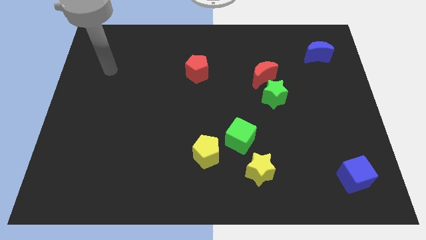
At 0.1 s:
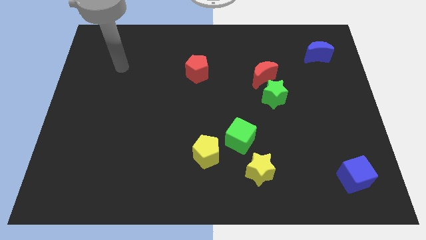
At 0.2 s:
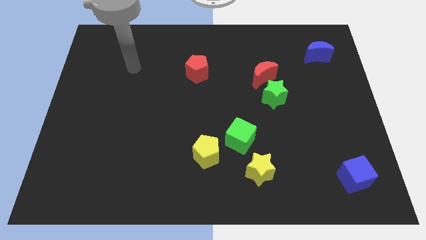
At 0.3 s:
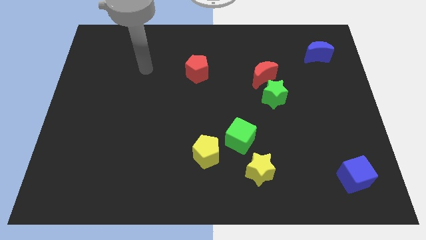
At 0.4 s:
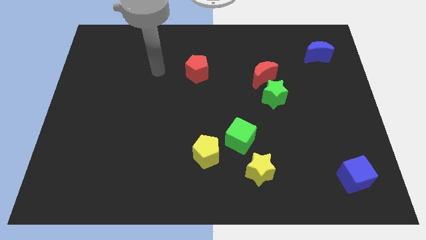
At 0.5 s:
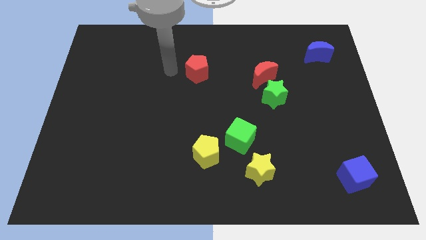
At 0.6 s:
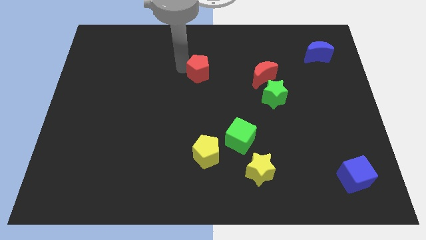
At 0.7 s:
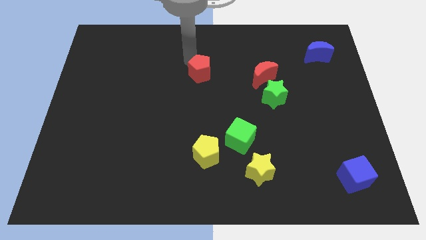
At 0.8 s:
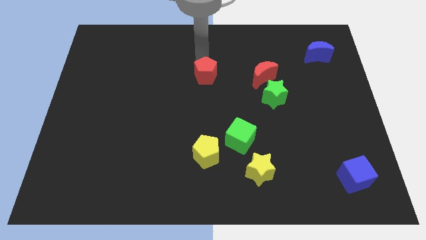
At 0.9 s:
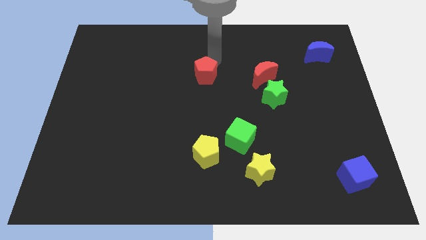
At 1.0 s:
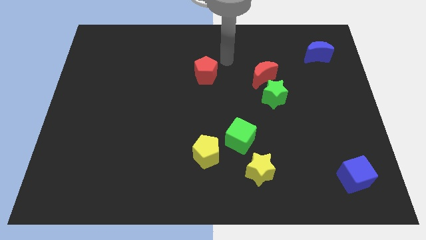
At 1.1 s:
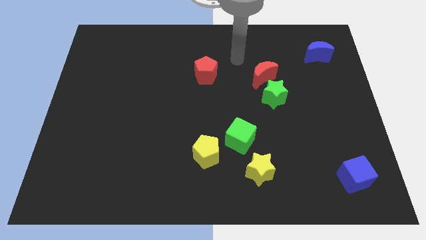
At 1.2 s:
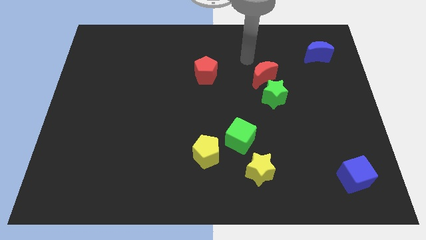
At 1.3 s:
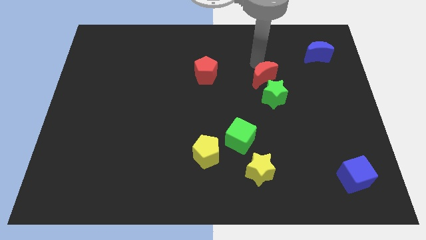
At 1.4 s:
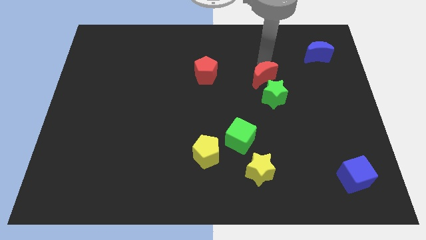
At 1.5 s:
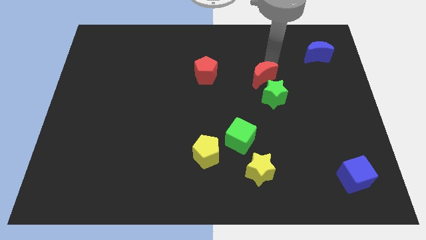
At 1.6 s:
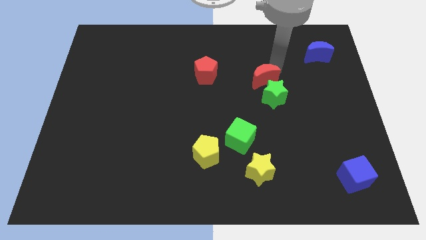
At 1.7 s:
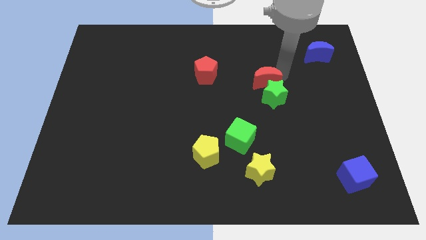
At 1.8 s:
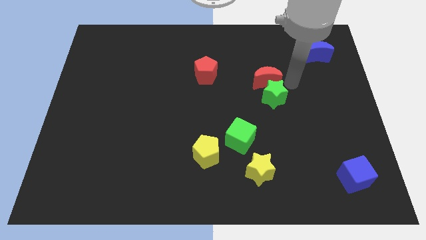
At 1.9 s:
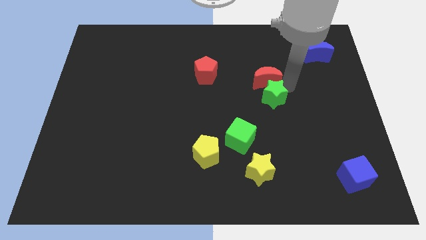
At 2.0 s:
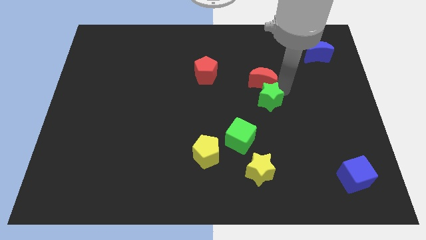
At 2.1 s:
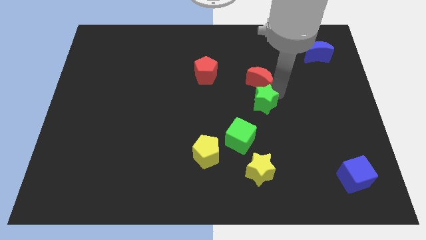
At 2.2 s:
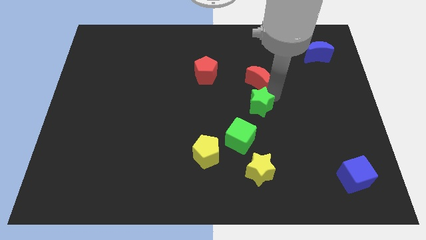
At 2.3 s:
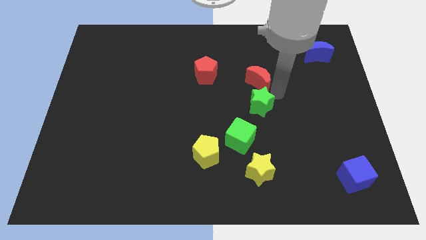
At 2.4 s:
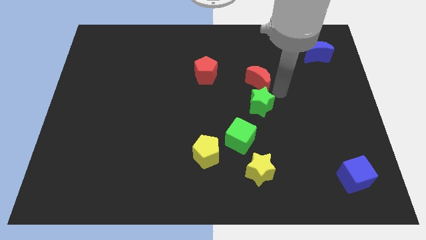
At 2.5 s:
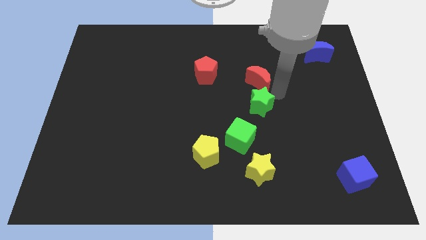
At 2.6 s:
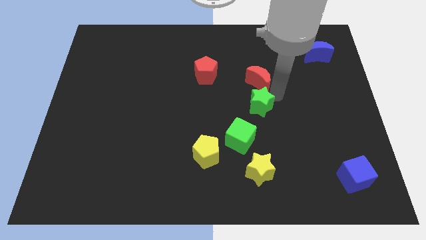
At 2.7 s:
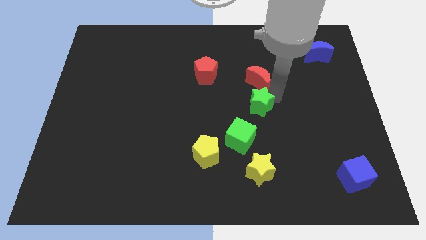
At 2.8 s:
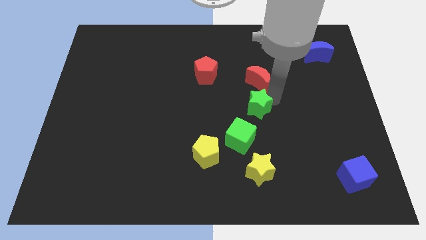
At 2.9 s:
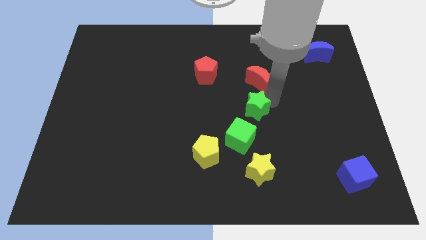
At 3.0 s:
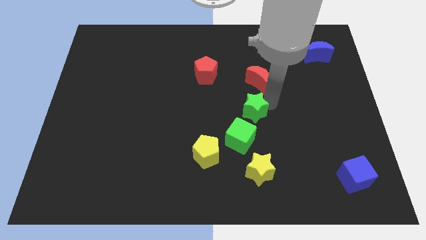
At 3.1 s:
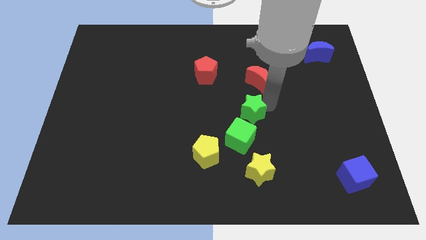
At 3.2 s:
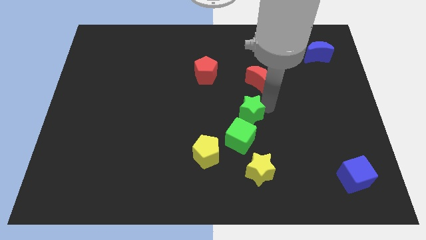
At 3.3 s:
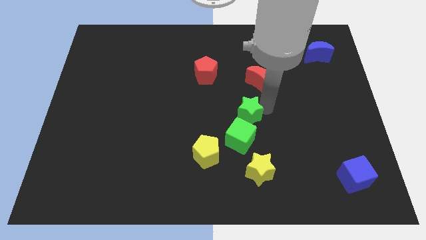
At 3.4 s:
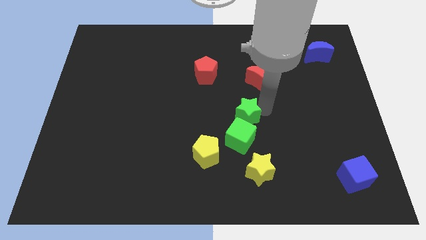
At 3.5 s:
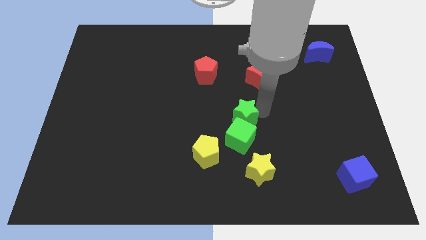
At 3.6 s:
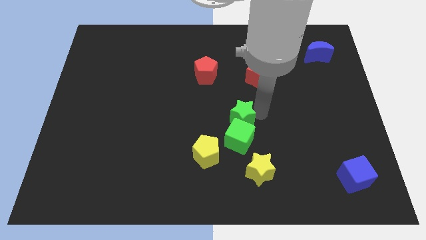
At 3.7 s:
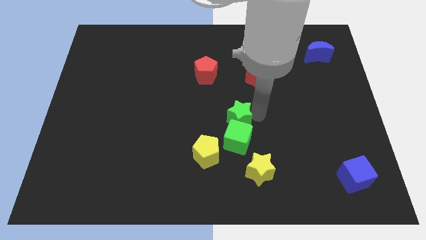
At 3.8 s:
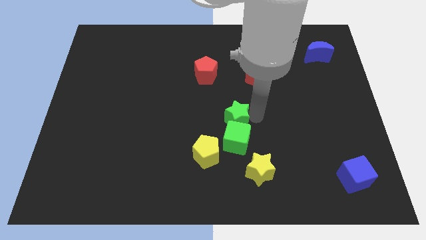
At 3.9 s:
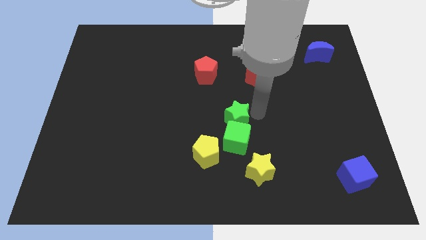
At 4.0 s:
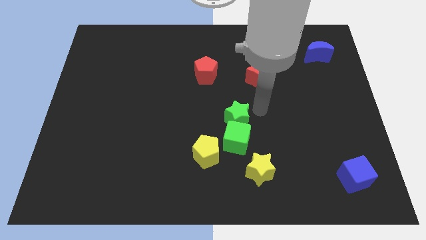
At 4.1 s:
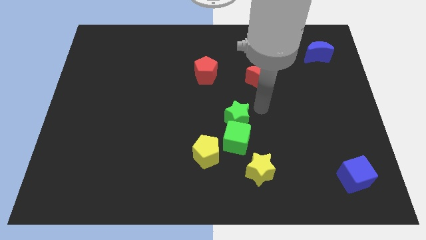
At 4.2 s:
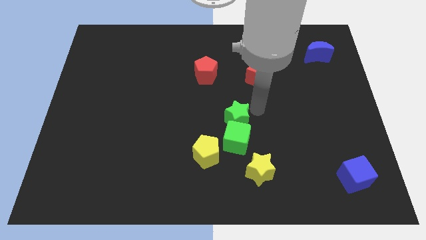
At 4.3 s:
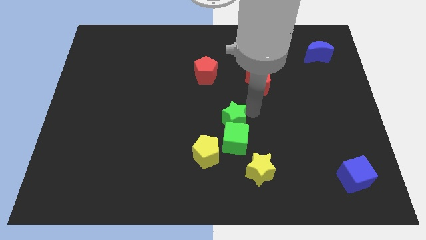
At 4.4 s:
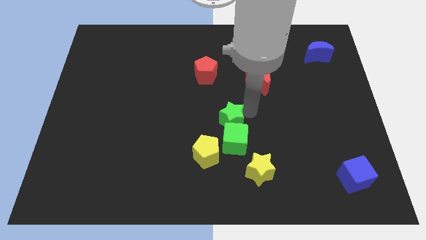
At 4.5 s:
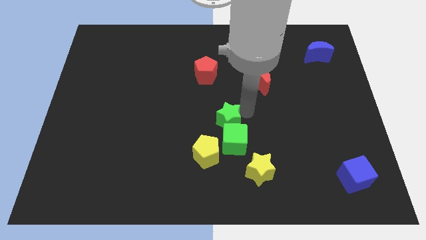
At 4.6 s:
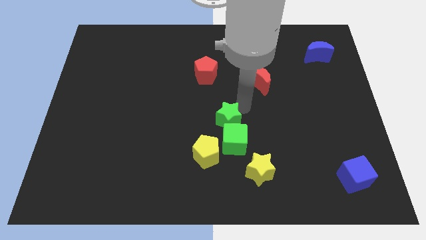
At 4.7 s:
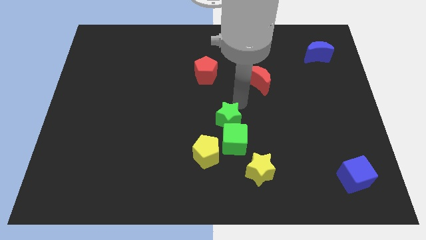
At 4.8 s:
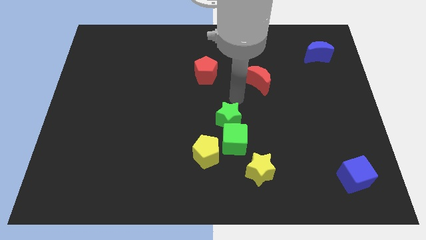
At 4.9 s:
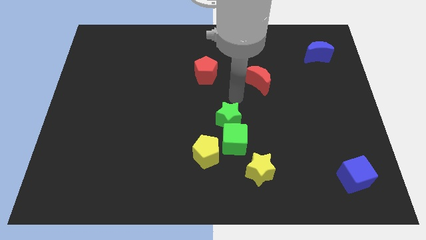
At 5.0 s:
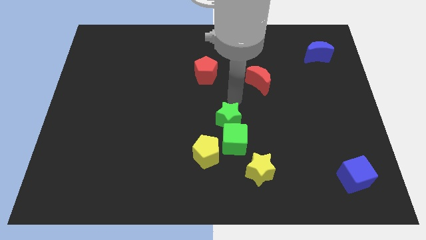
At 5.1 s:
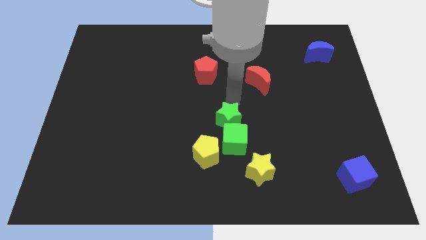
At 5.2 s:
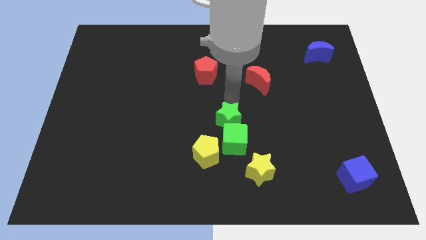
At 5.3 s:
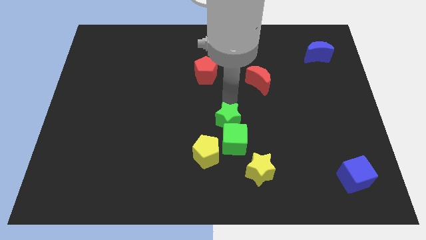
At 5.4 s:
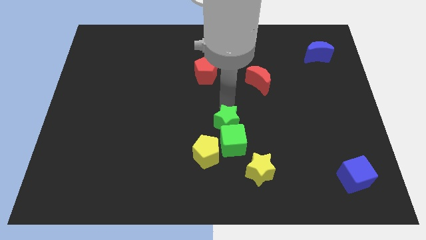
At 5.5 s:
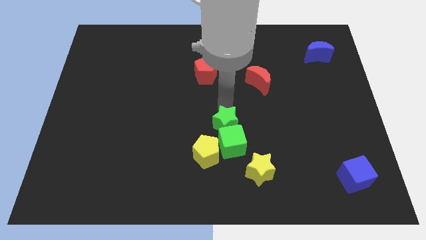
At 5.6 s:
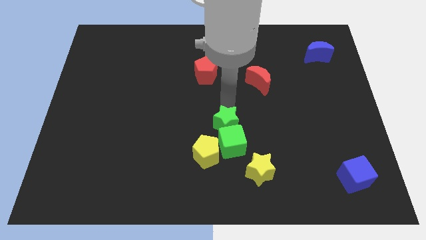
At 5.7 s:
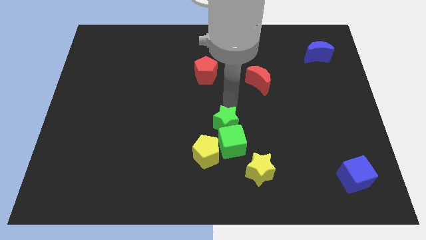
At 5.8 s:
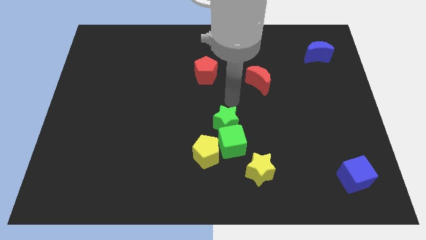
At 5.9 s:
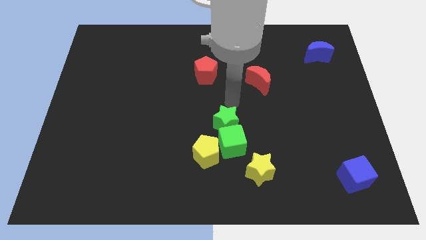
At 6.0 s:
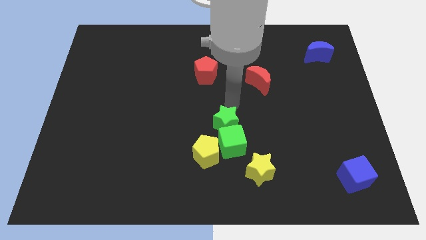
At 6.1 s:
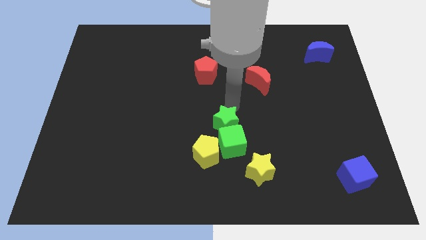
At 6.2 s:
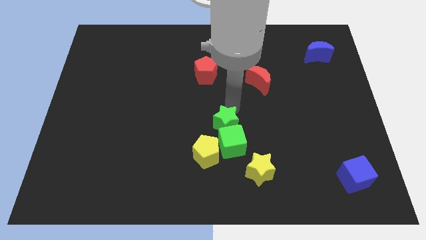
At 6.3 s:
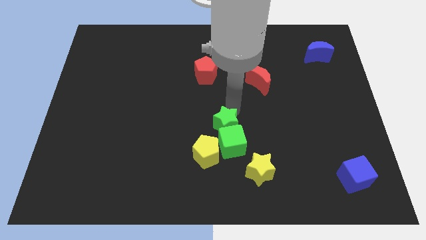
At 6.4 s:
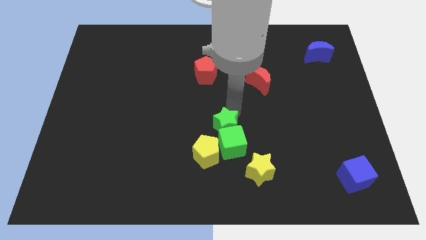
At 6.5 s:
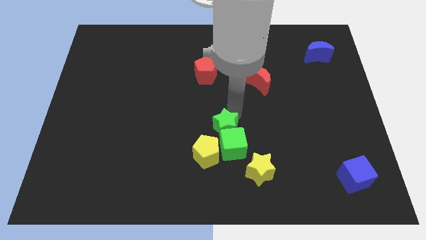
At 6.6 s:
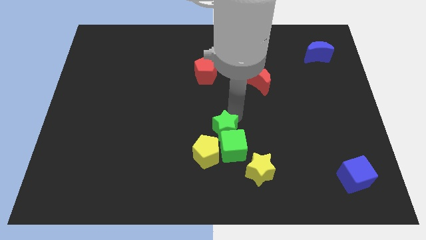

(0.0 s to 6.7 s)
slide the green star diagonally up and to the left of the yellow star
